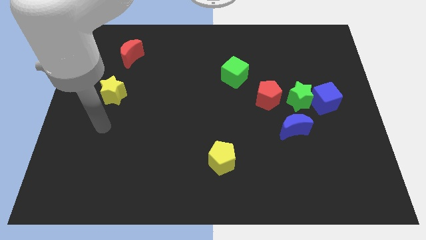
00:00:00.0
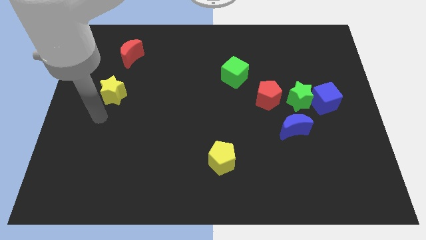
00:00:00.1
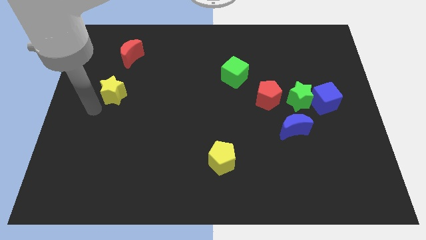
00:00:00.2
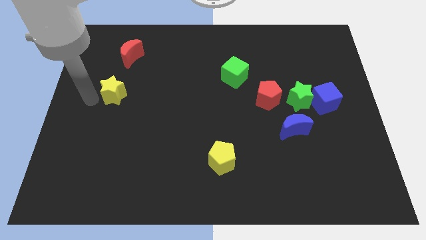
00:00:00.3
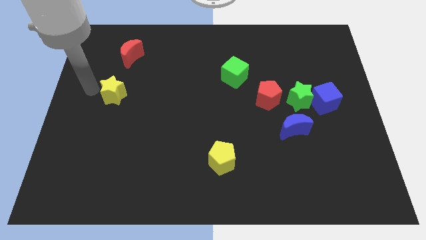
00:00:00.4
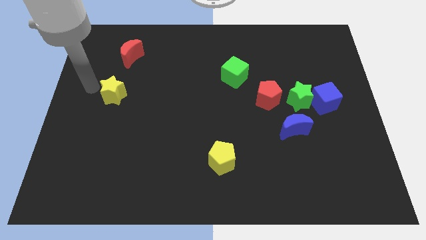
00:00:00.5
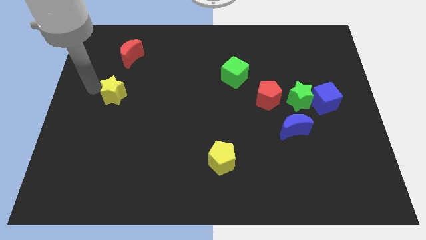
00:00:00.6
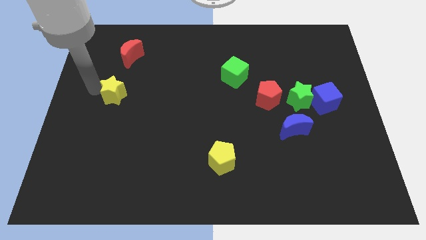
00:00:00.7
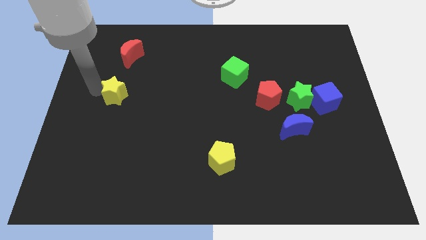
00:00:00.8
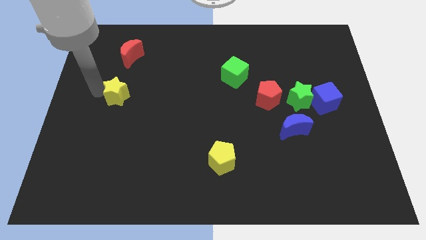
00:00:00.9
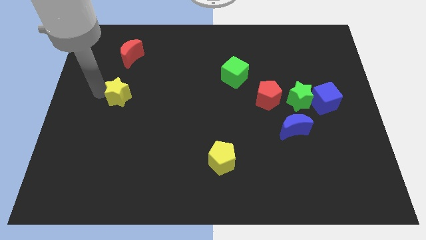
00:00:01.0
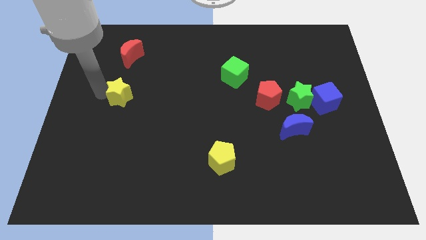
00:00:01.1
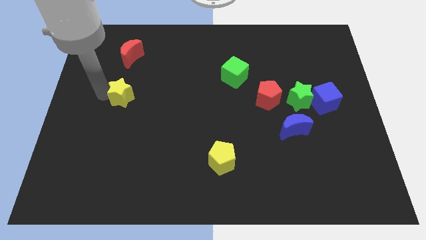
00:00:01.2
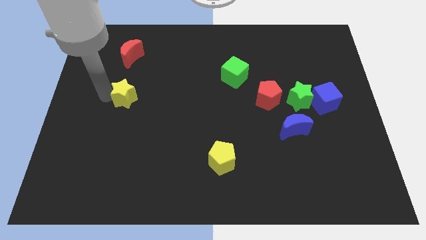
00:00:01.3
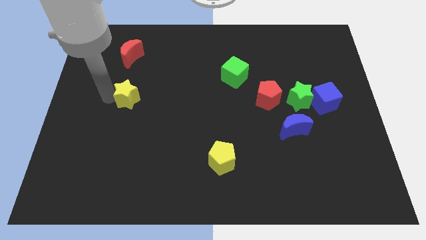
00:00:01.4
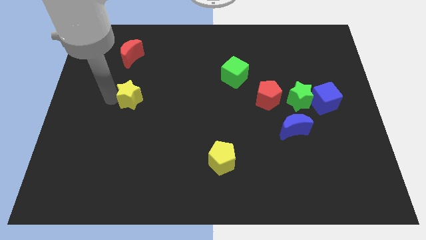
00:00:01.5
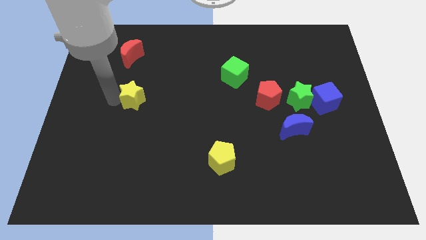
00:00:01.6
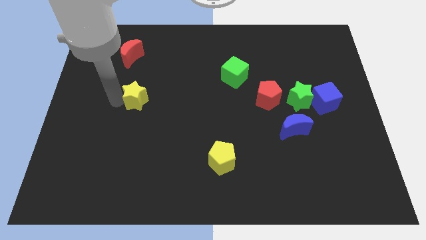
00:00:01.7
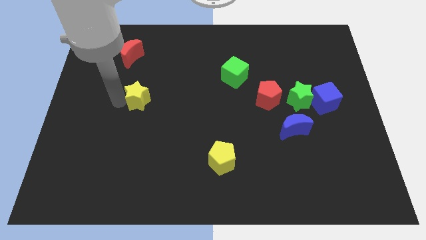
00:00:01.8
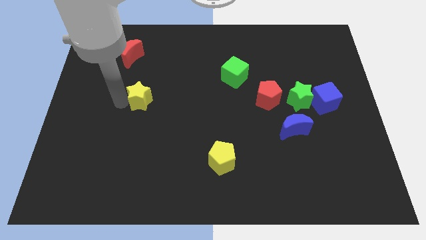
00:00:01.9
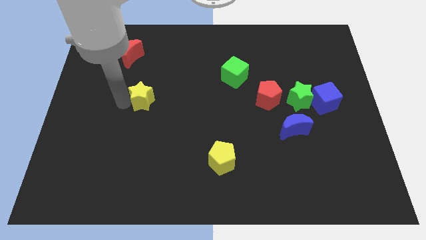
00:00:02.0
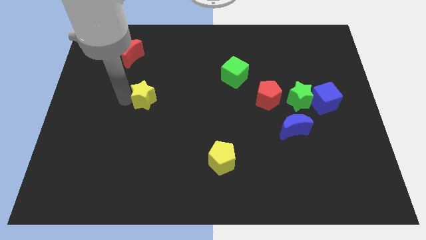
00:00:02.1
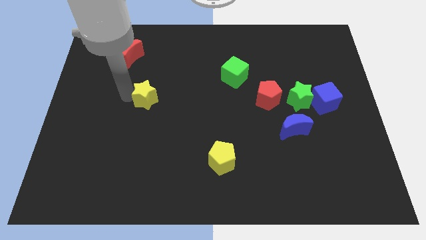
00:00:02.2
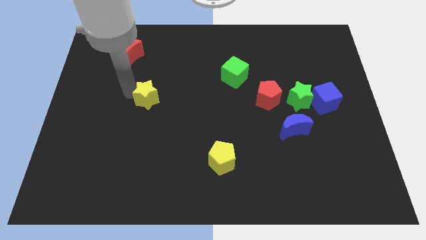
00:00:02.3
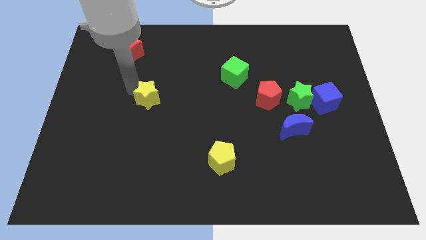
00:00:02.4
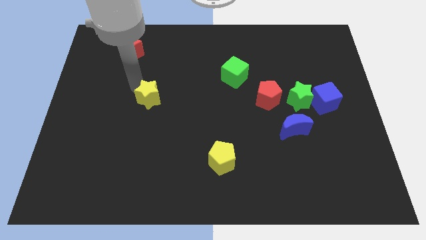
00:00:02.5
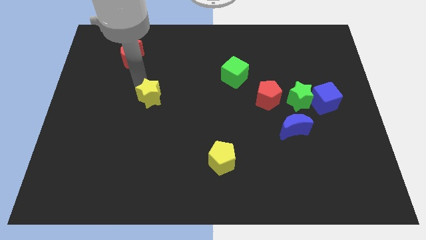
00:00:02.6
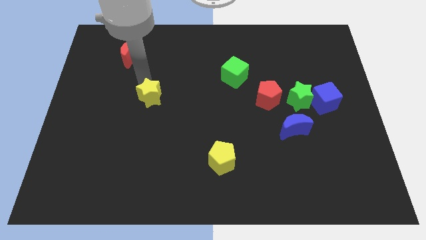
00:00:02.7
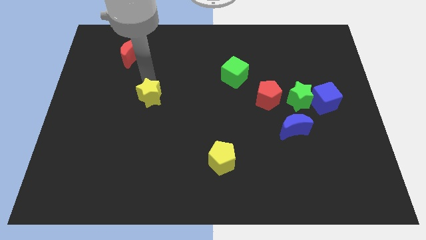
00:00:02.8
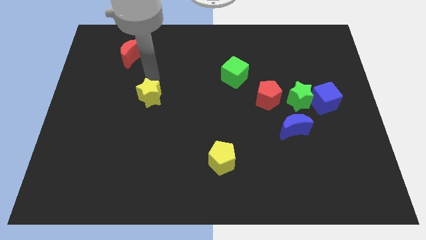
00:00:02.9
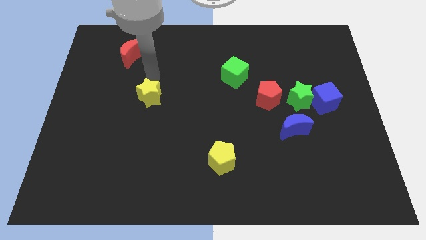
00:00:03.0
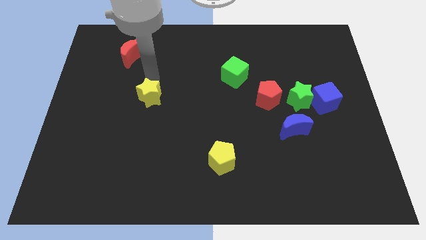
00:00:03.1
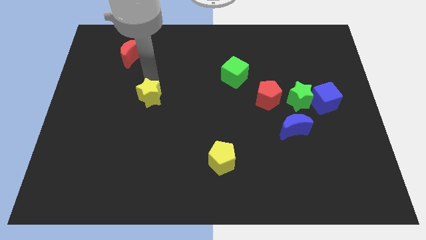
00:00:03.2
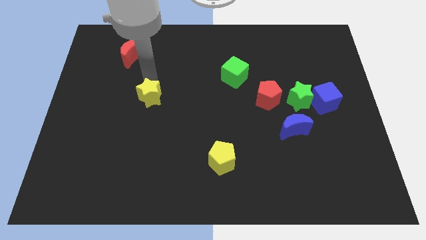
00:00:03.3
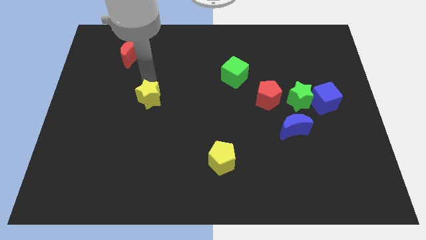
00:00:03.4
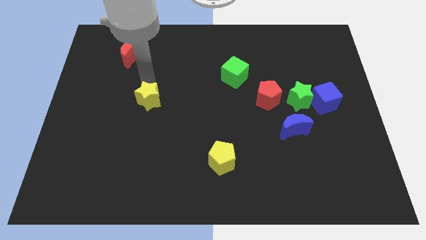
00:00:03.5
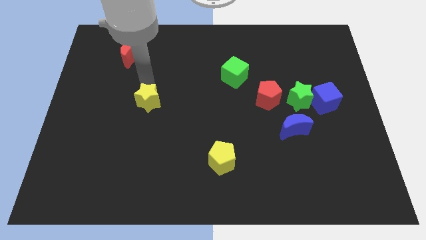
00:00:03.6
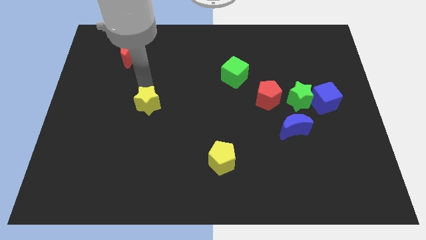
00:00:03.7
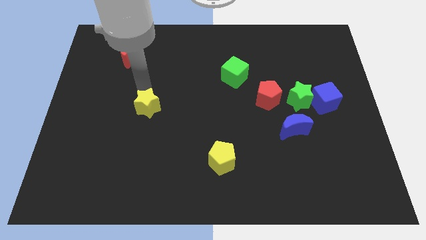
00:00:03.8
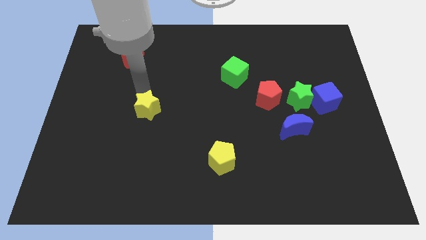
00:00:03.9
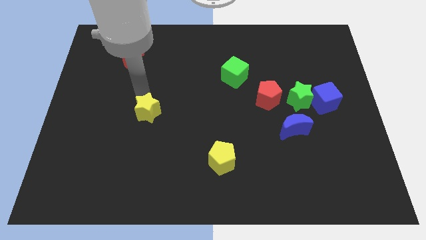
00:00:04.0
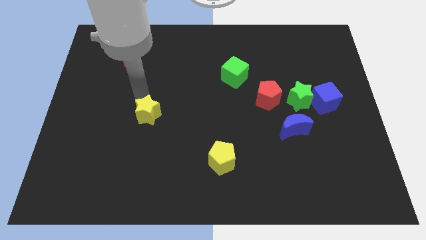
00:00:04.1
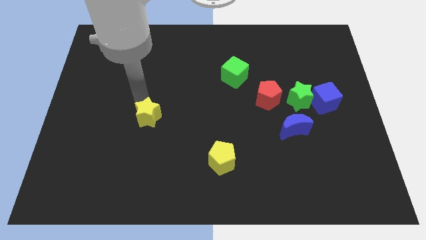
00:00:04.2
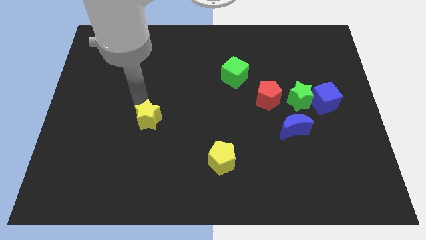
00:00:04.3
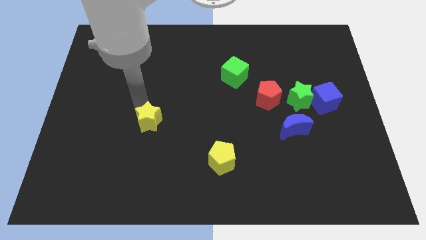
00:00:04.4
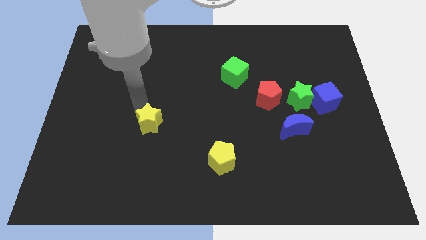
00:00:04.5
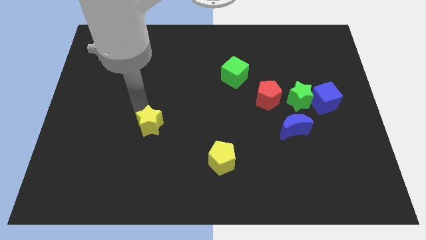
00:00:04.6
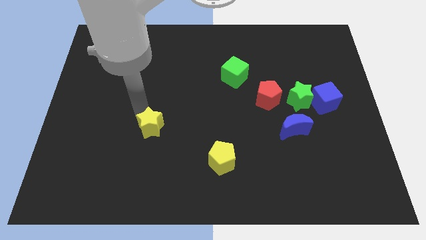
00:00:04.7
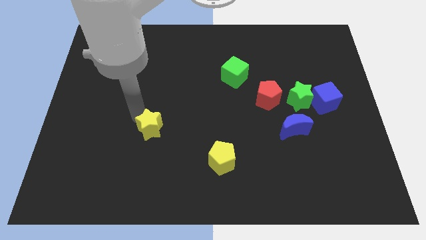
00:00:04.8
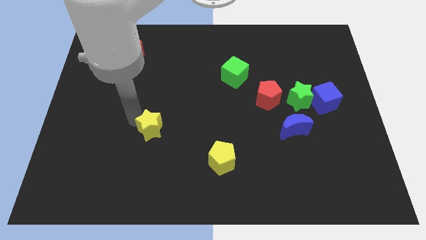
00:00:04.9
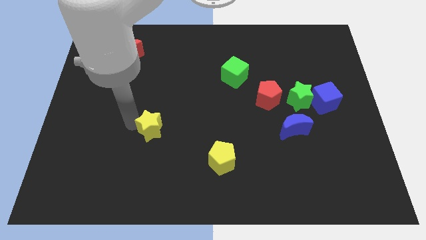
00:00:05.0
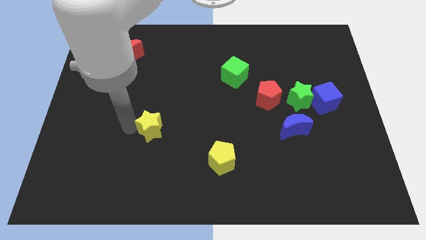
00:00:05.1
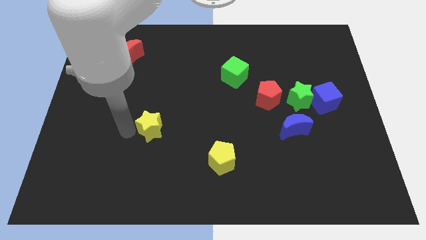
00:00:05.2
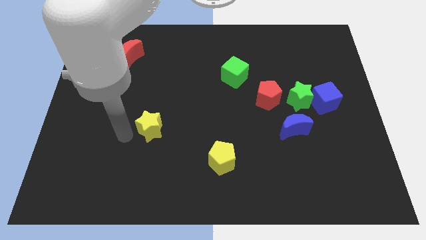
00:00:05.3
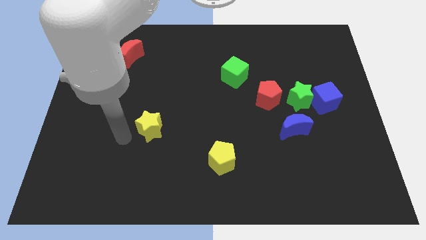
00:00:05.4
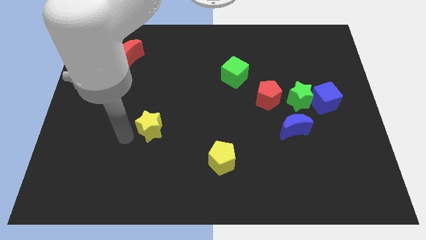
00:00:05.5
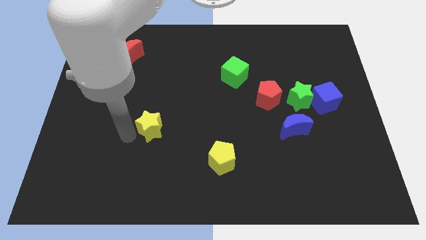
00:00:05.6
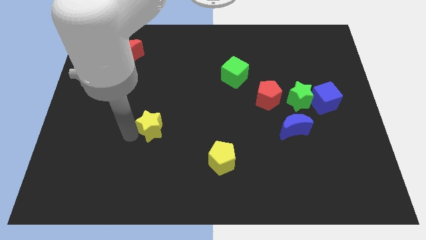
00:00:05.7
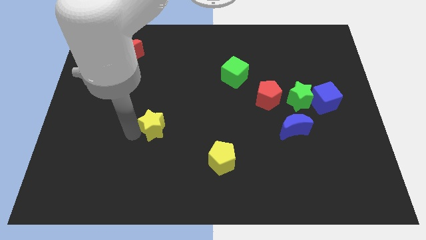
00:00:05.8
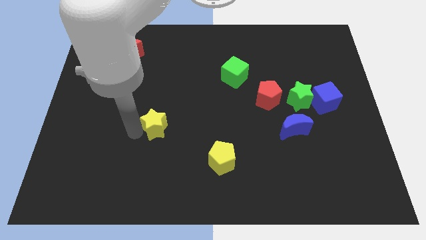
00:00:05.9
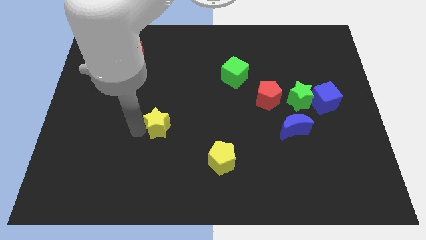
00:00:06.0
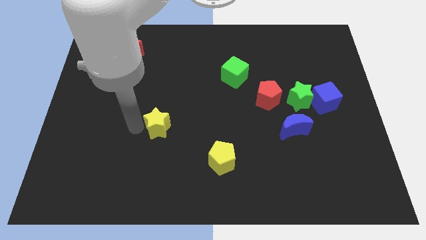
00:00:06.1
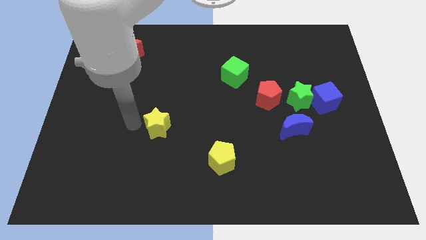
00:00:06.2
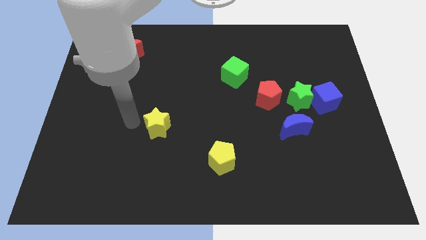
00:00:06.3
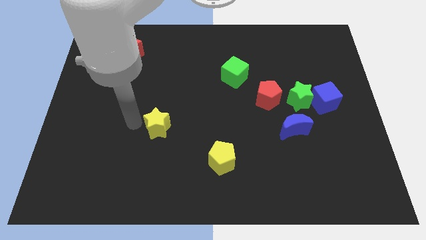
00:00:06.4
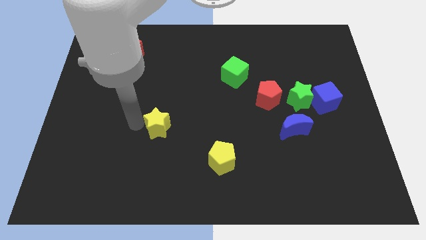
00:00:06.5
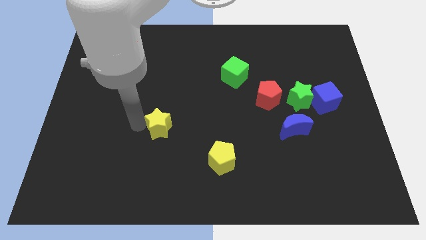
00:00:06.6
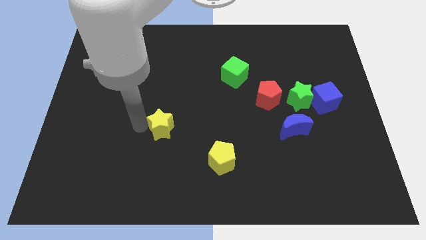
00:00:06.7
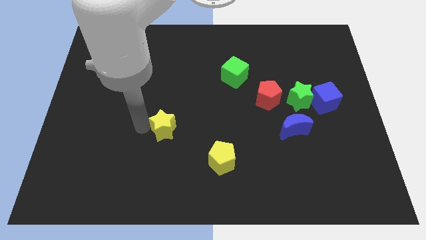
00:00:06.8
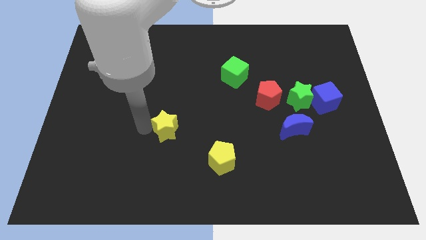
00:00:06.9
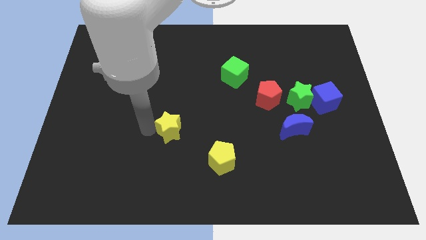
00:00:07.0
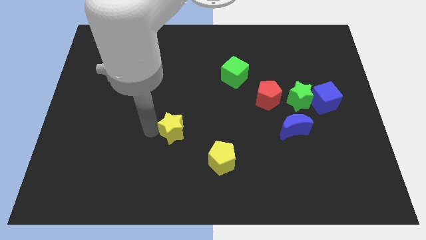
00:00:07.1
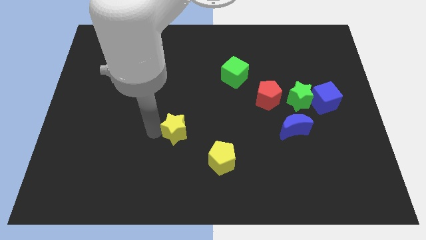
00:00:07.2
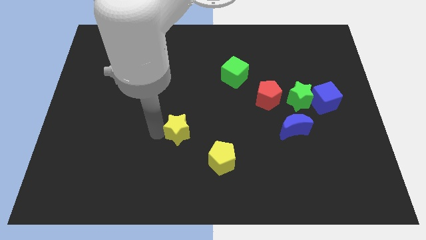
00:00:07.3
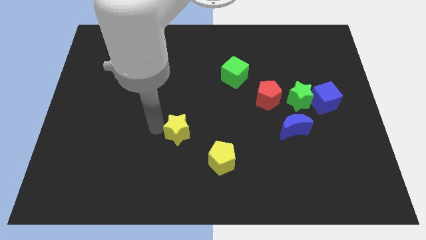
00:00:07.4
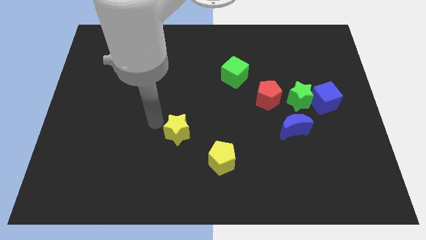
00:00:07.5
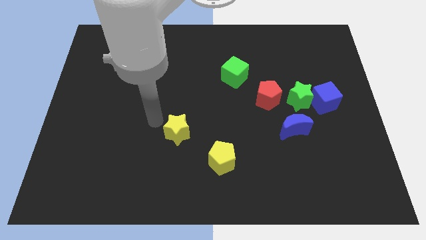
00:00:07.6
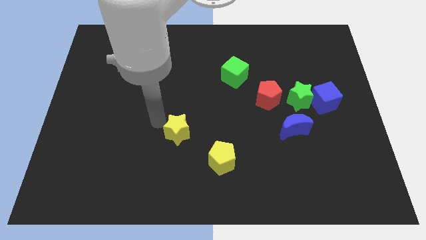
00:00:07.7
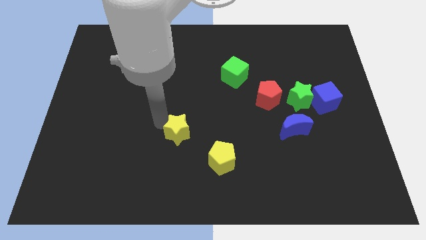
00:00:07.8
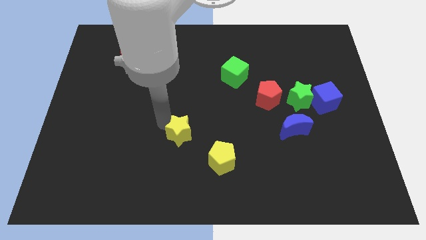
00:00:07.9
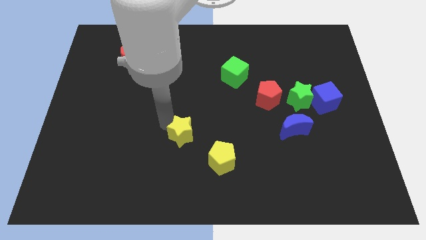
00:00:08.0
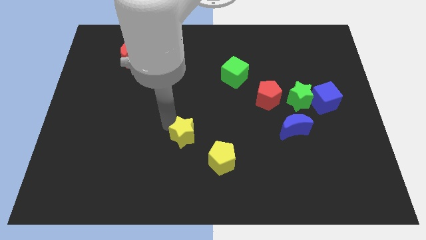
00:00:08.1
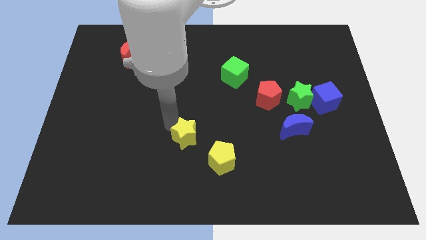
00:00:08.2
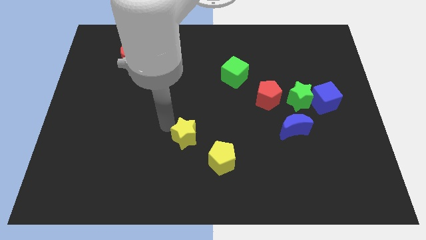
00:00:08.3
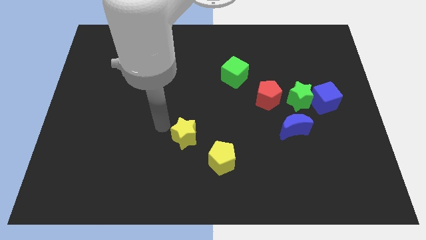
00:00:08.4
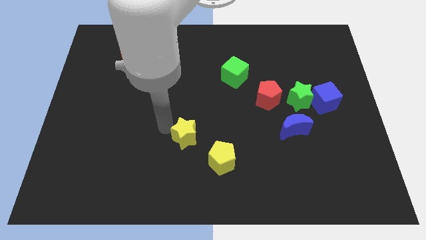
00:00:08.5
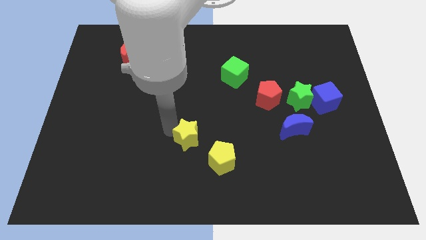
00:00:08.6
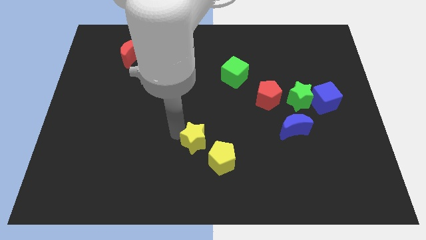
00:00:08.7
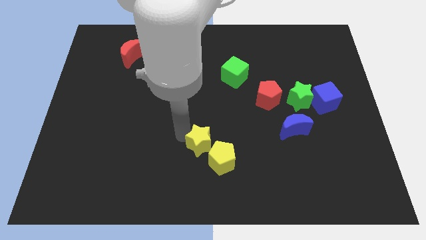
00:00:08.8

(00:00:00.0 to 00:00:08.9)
move the yellow star next to the yellow pentagon
